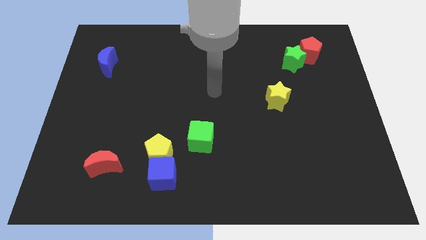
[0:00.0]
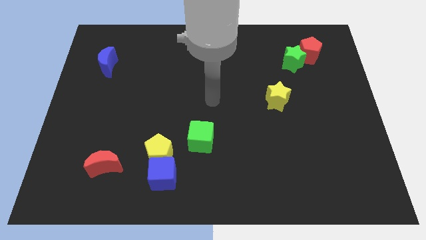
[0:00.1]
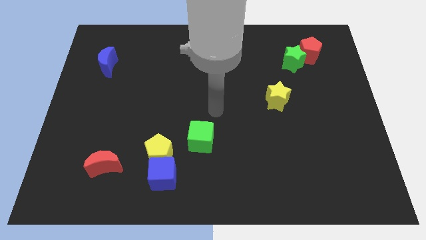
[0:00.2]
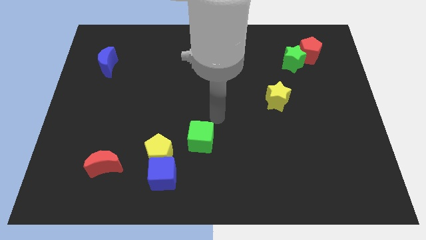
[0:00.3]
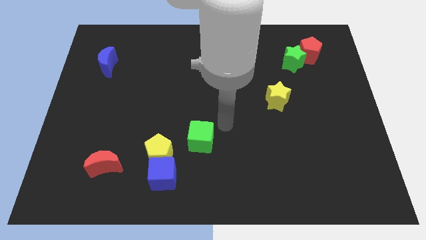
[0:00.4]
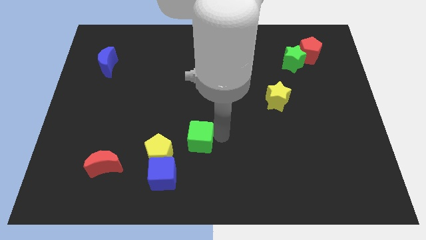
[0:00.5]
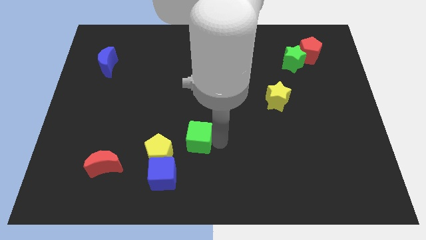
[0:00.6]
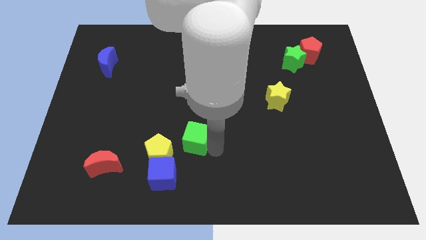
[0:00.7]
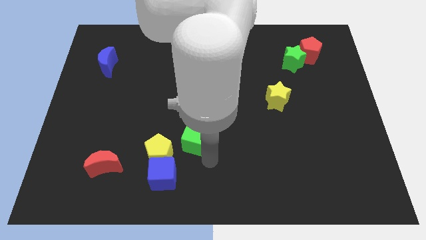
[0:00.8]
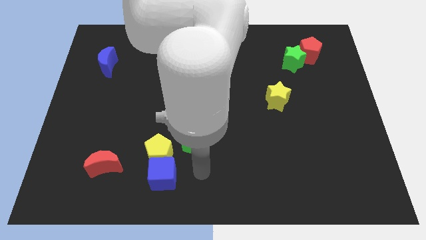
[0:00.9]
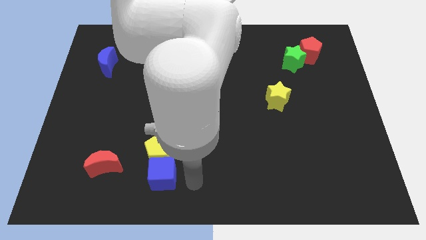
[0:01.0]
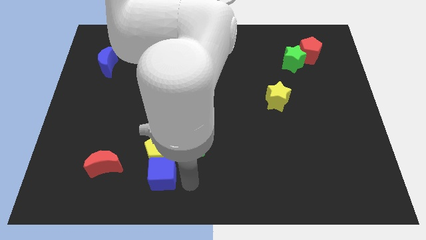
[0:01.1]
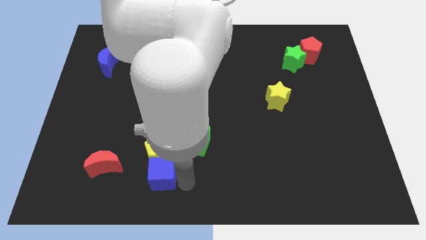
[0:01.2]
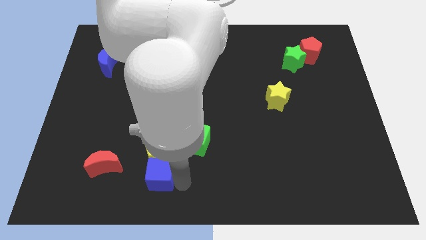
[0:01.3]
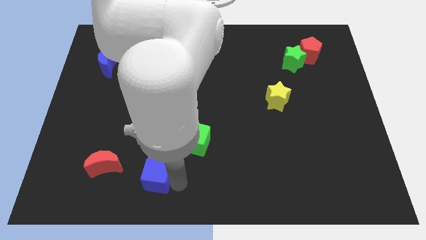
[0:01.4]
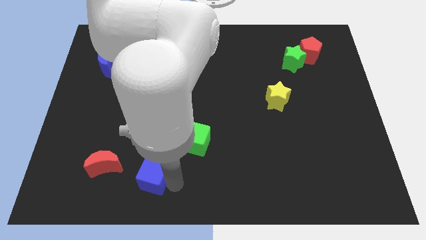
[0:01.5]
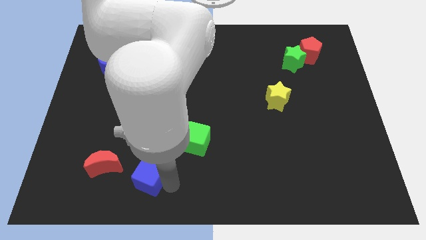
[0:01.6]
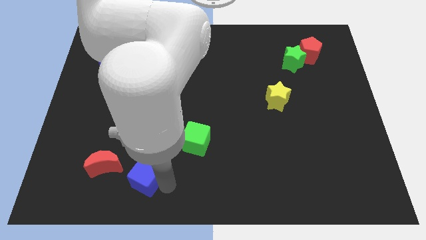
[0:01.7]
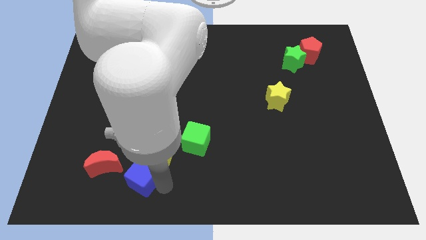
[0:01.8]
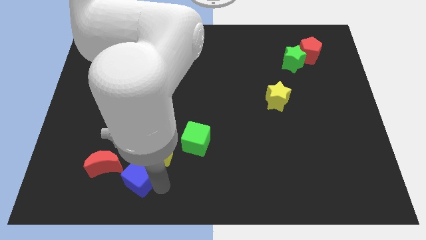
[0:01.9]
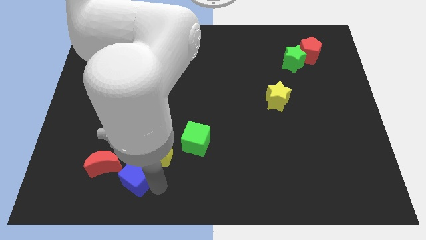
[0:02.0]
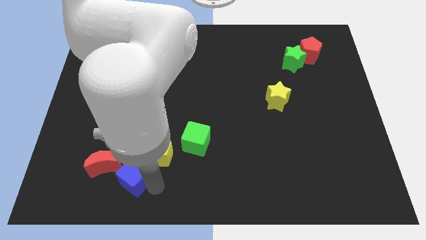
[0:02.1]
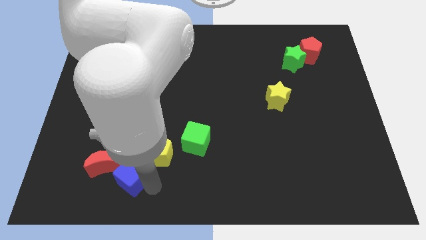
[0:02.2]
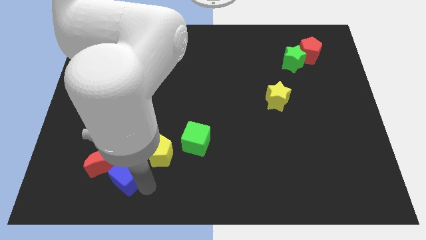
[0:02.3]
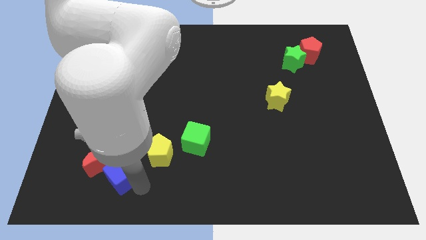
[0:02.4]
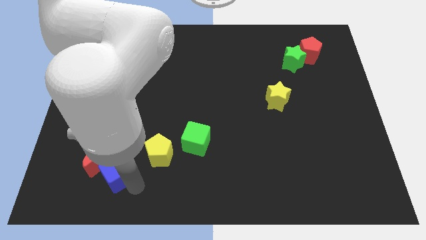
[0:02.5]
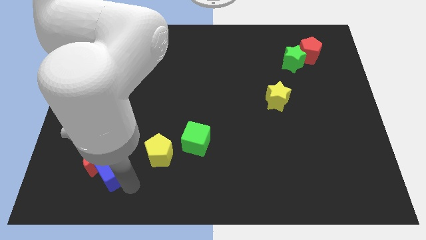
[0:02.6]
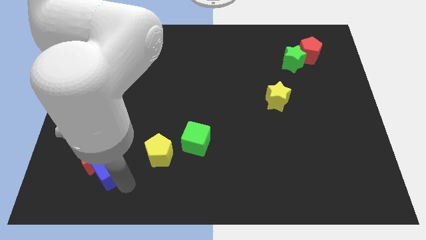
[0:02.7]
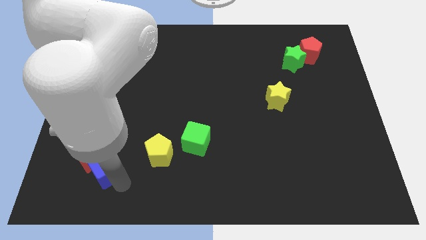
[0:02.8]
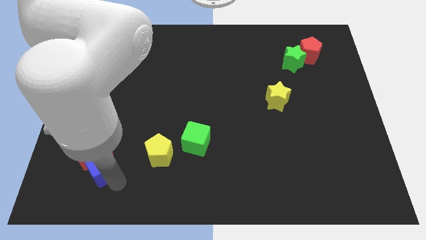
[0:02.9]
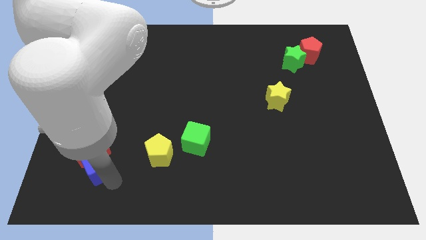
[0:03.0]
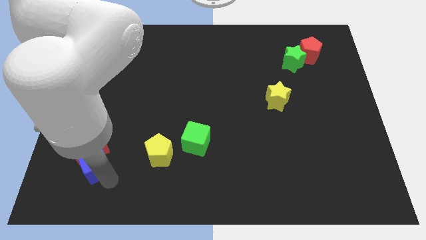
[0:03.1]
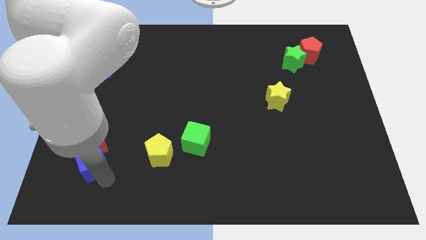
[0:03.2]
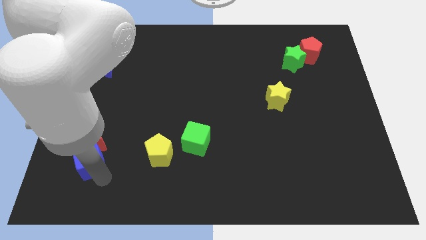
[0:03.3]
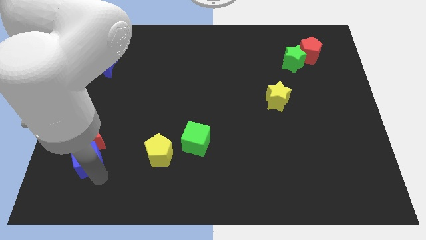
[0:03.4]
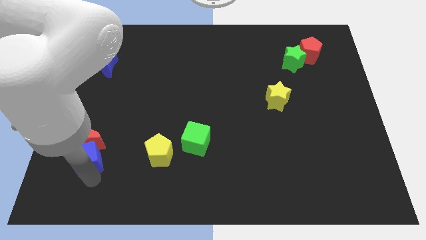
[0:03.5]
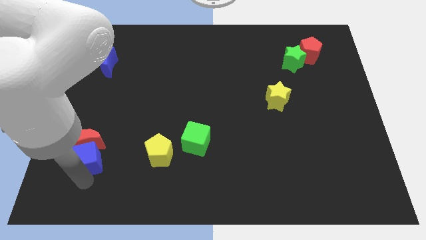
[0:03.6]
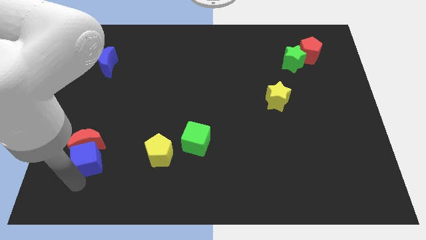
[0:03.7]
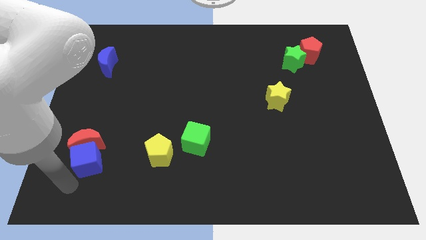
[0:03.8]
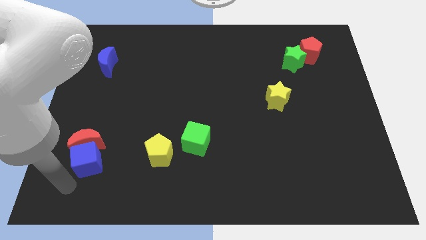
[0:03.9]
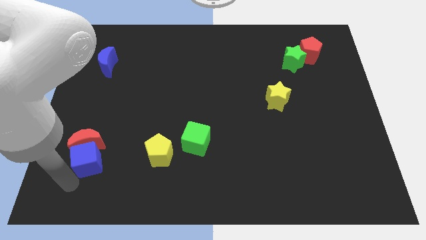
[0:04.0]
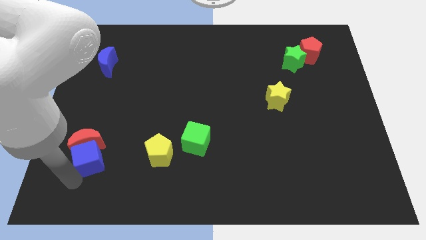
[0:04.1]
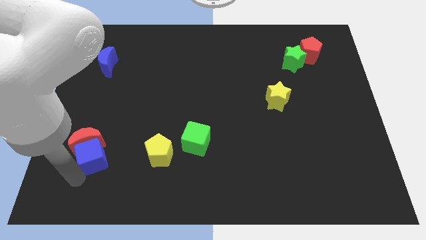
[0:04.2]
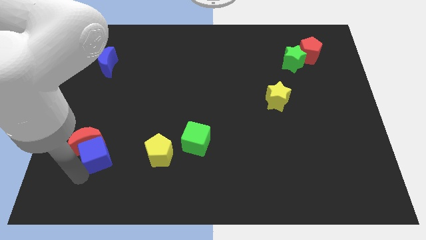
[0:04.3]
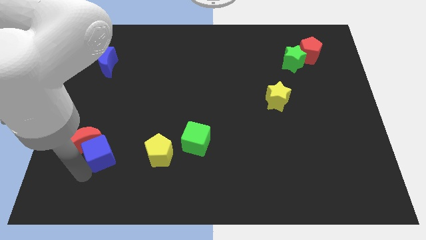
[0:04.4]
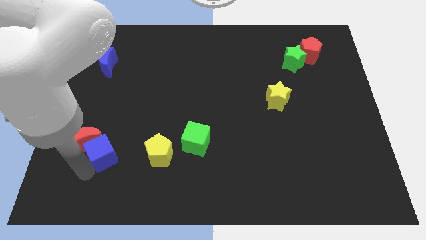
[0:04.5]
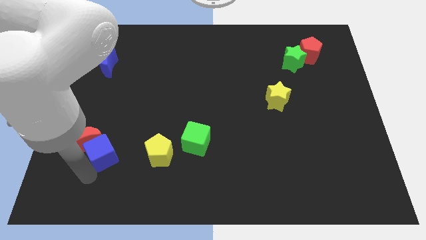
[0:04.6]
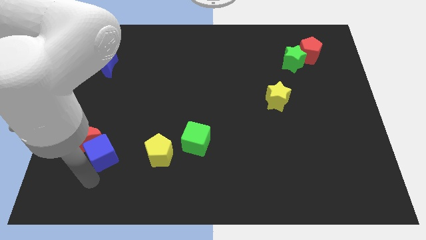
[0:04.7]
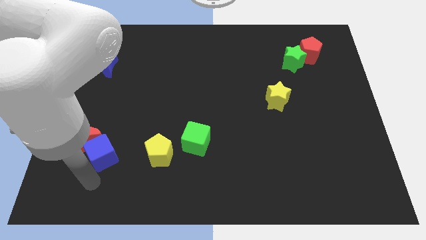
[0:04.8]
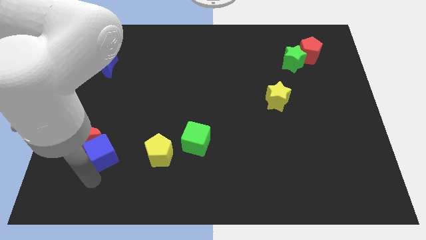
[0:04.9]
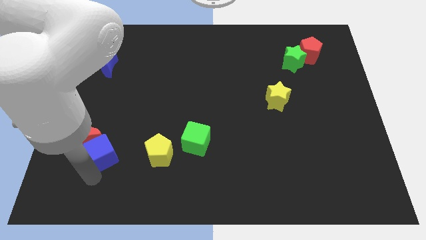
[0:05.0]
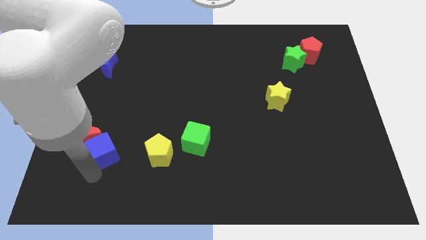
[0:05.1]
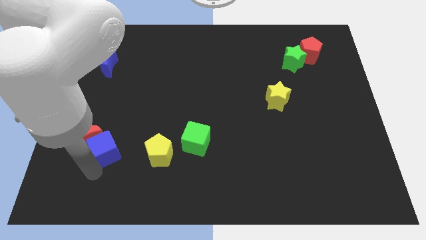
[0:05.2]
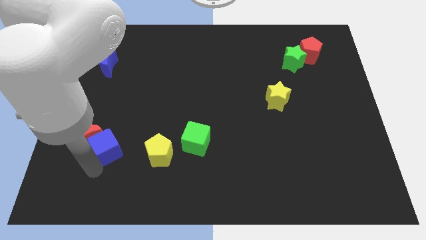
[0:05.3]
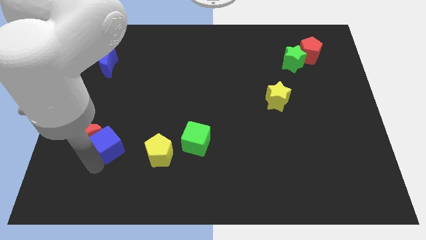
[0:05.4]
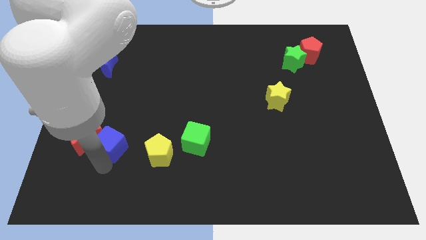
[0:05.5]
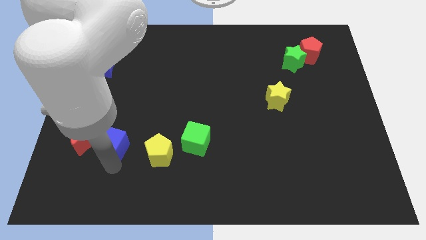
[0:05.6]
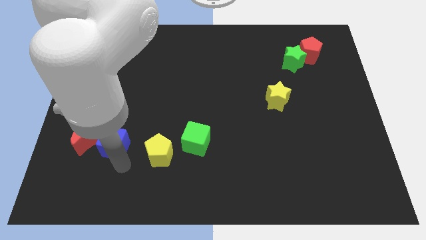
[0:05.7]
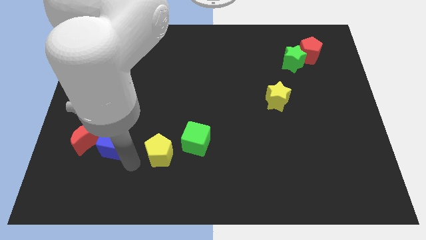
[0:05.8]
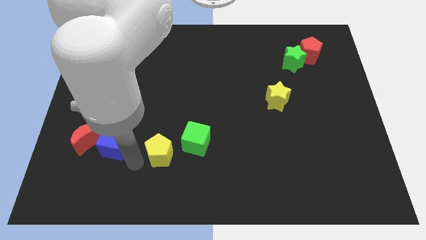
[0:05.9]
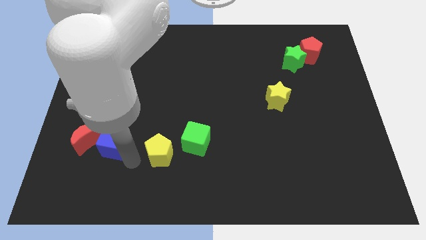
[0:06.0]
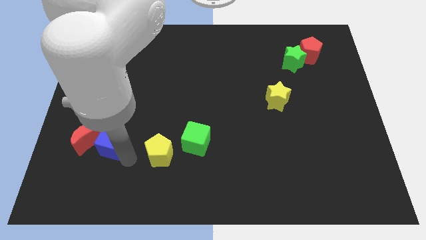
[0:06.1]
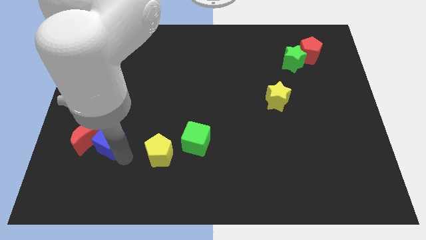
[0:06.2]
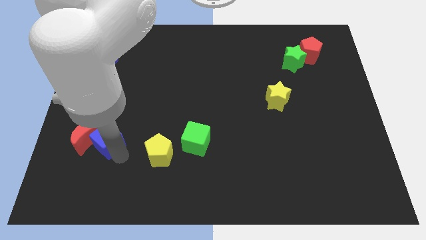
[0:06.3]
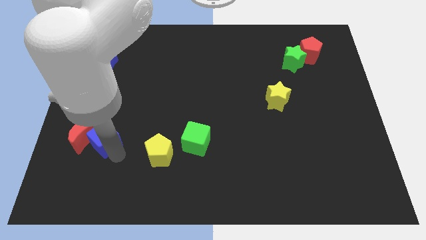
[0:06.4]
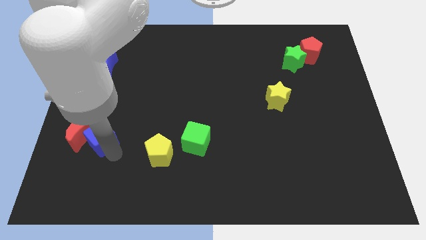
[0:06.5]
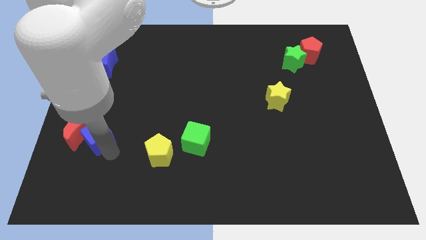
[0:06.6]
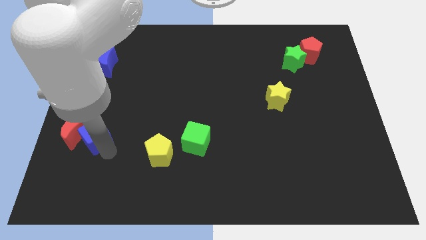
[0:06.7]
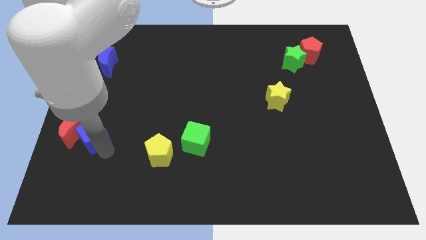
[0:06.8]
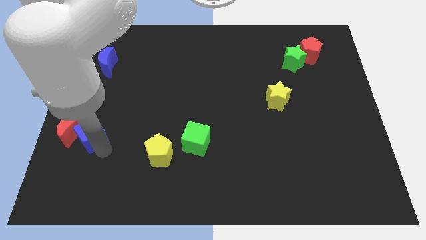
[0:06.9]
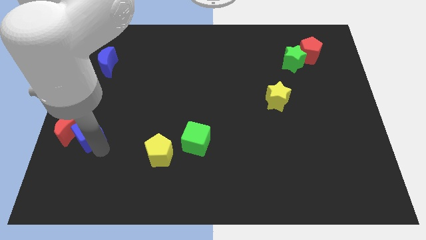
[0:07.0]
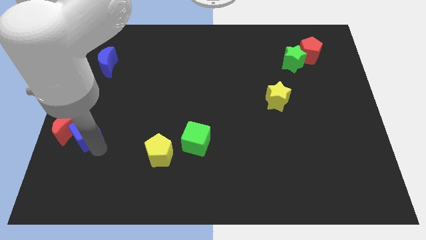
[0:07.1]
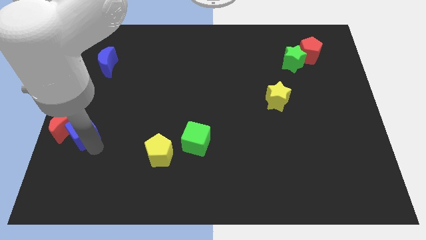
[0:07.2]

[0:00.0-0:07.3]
slide the blue cube to the center left
